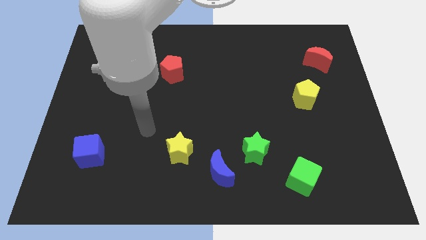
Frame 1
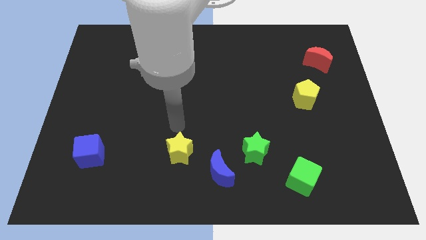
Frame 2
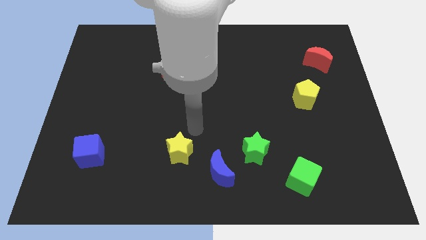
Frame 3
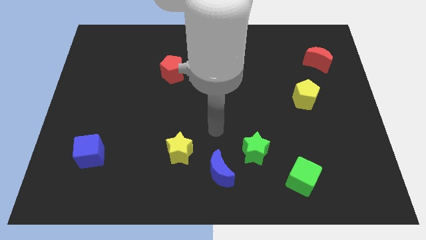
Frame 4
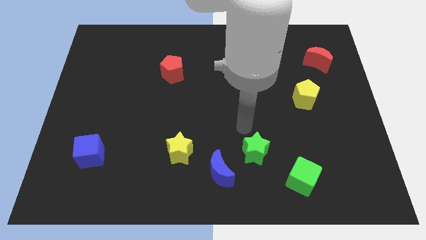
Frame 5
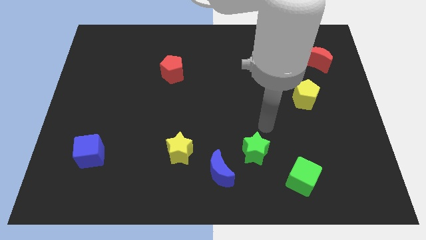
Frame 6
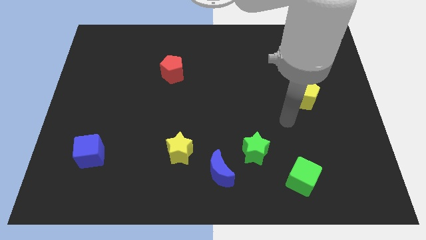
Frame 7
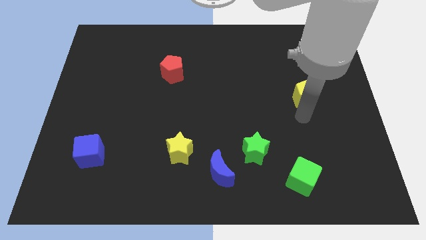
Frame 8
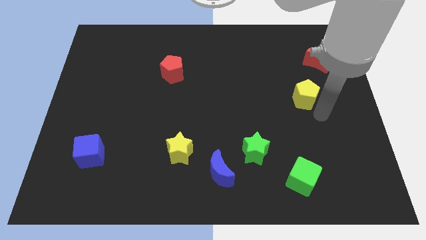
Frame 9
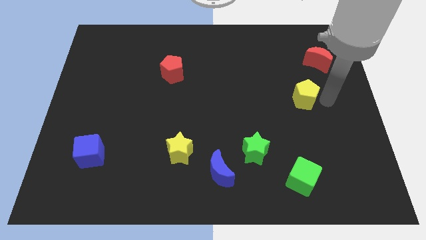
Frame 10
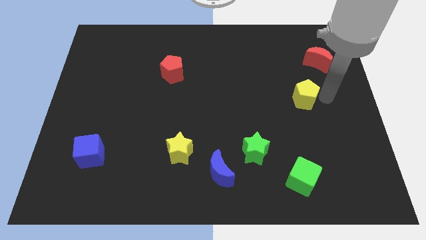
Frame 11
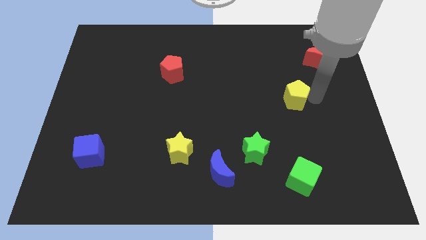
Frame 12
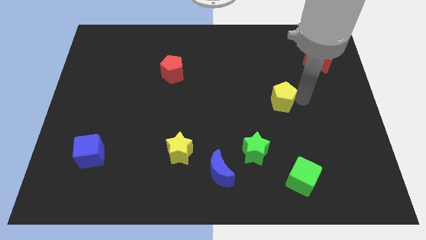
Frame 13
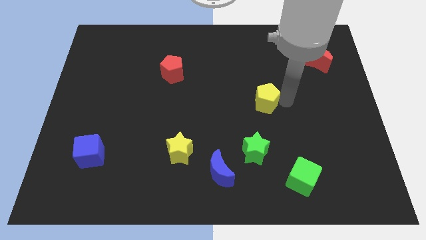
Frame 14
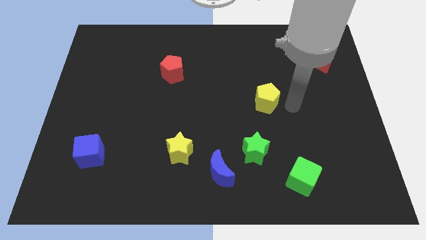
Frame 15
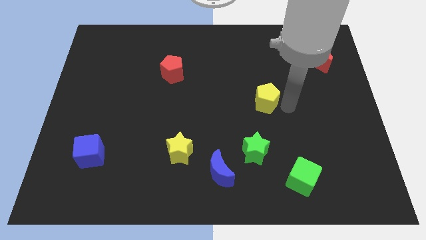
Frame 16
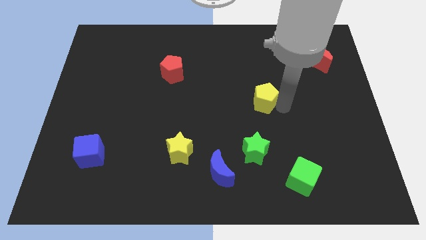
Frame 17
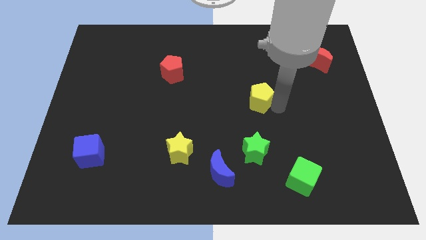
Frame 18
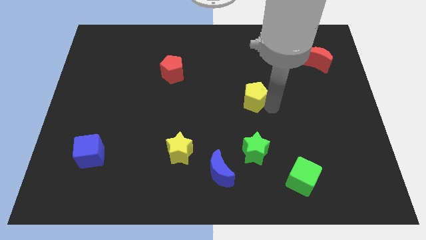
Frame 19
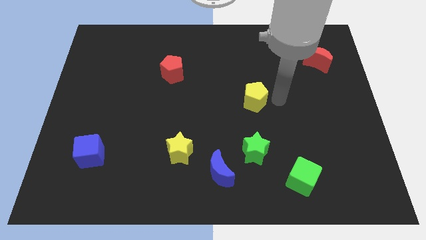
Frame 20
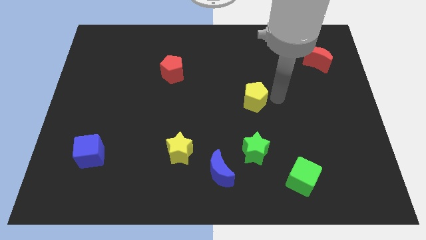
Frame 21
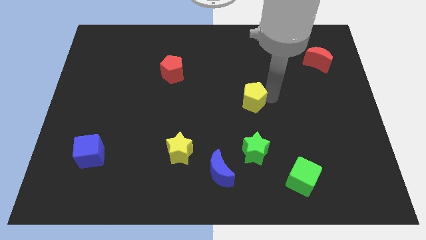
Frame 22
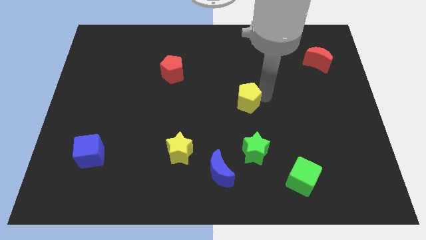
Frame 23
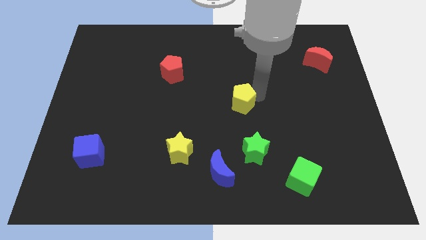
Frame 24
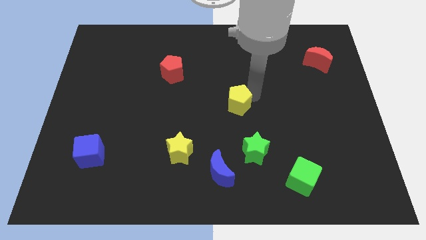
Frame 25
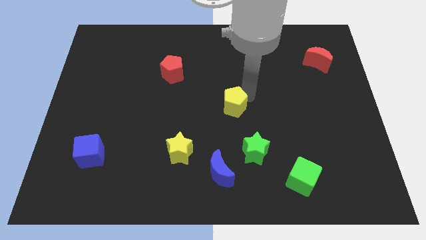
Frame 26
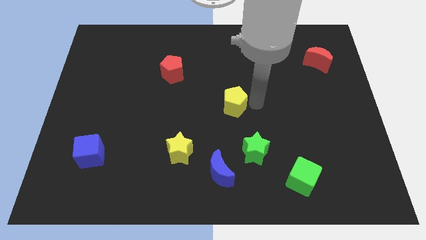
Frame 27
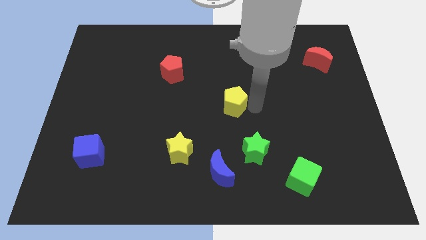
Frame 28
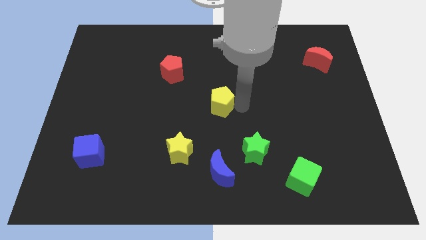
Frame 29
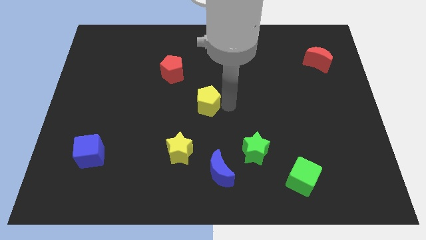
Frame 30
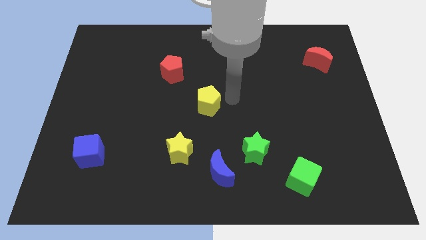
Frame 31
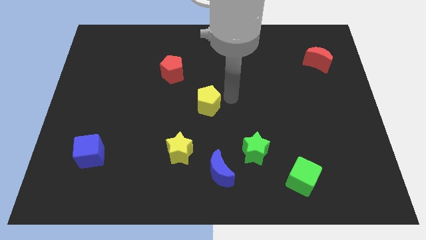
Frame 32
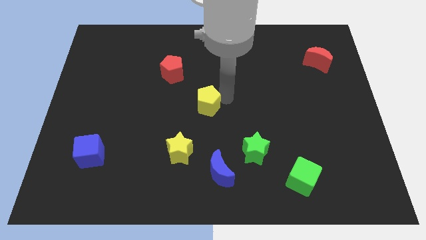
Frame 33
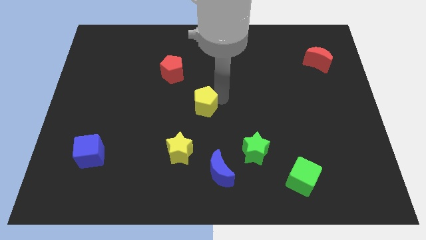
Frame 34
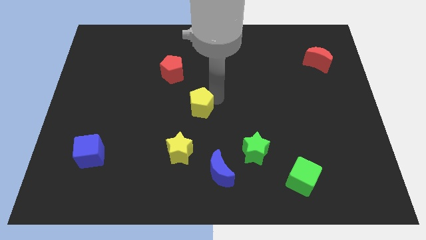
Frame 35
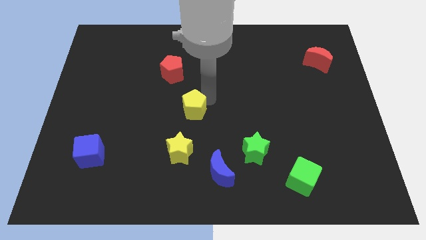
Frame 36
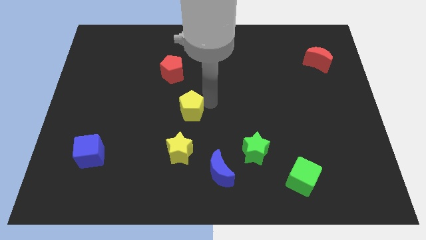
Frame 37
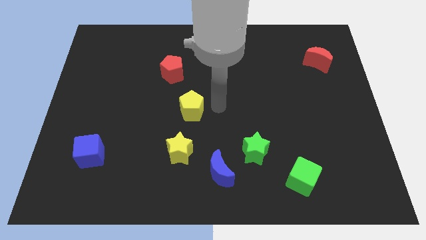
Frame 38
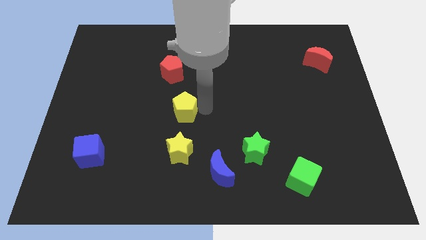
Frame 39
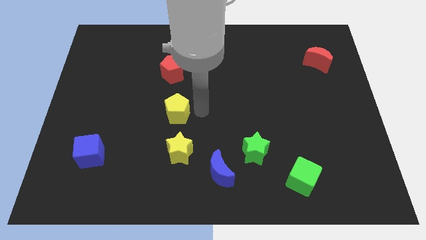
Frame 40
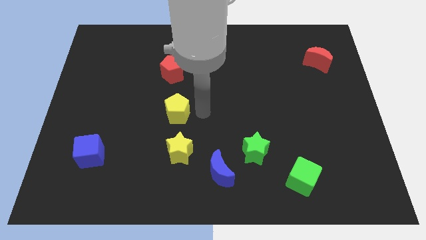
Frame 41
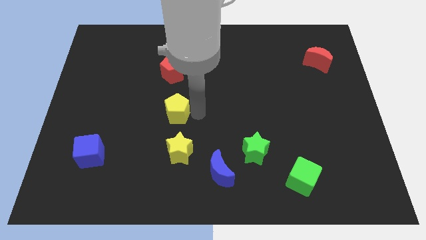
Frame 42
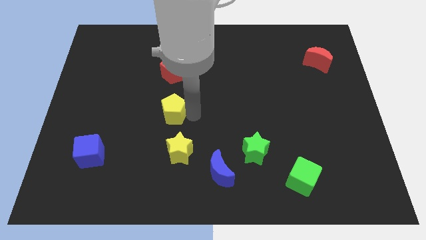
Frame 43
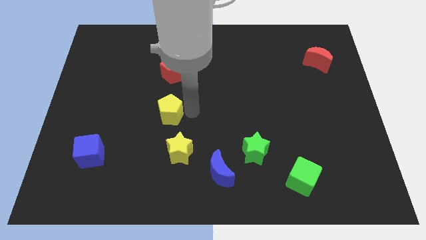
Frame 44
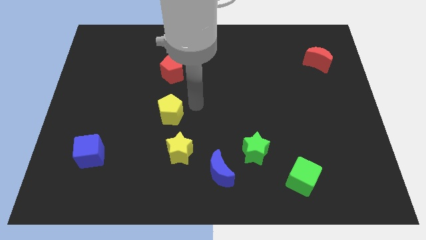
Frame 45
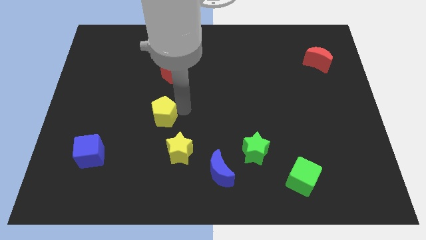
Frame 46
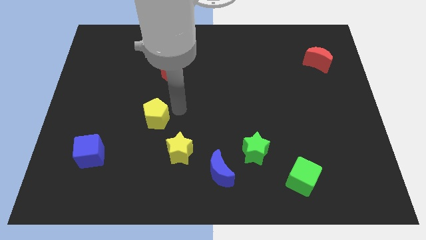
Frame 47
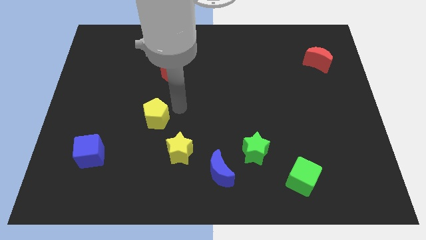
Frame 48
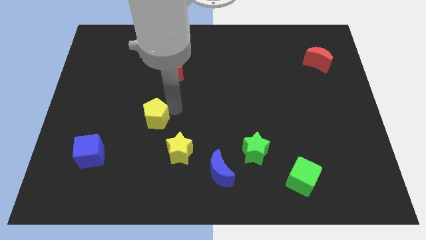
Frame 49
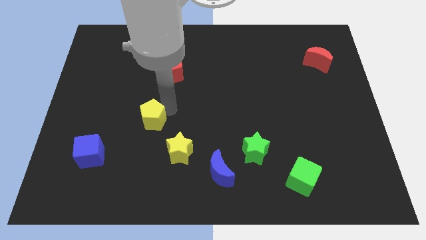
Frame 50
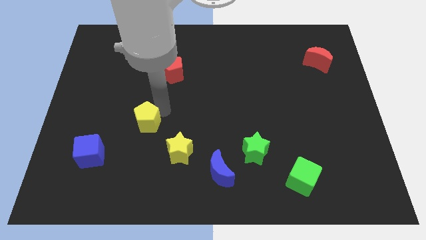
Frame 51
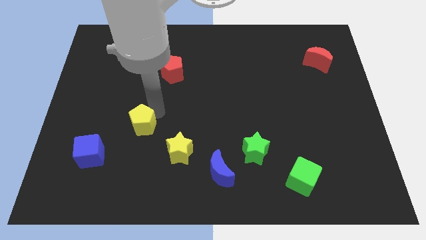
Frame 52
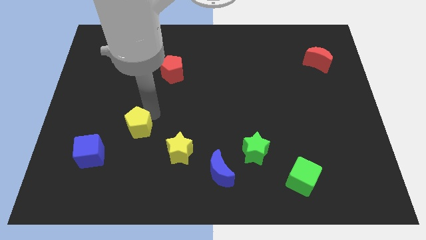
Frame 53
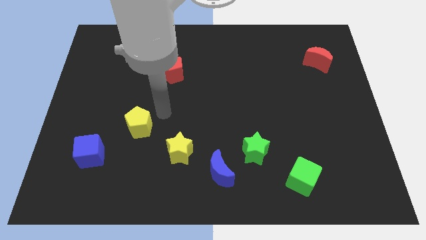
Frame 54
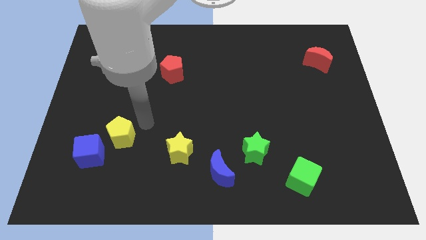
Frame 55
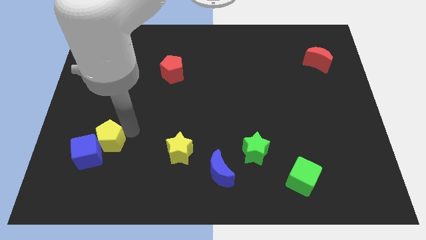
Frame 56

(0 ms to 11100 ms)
move the yellow pentagon to the blue cube

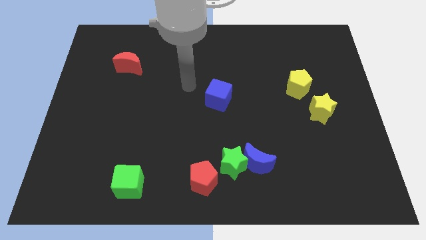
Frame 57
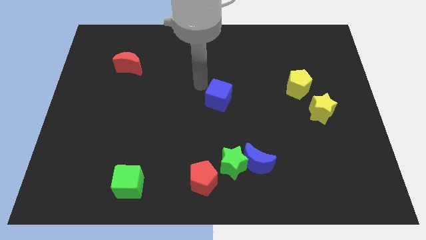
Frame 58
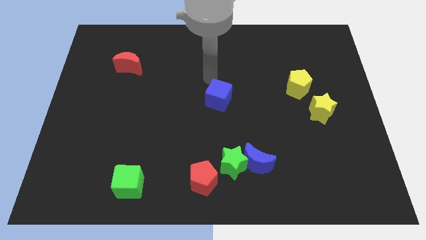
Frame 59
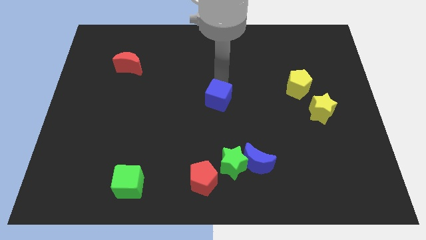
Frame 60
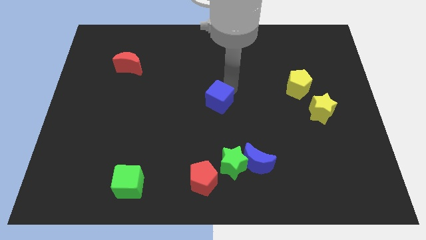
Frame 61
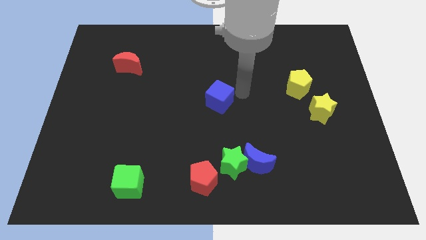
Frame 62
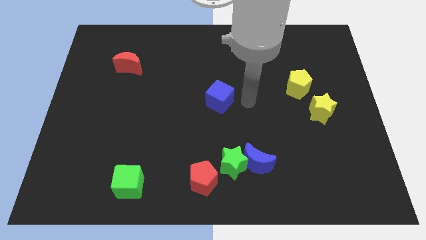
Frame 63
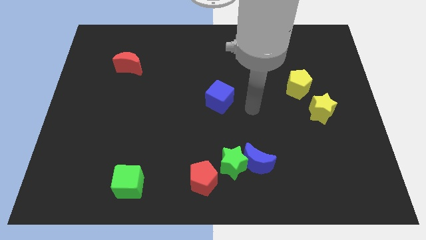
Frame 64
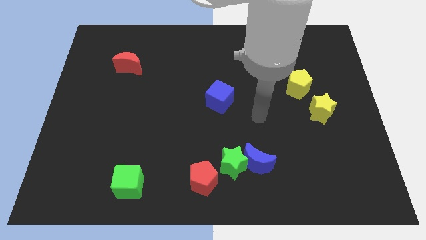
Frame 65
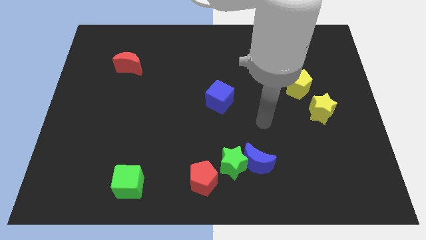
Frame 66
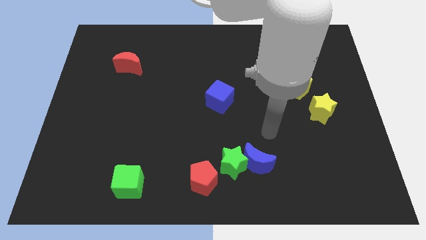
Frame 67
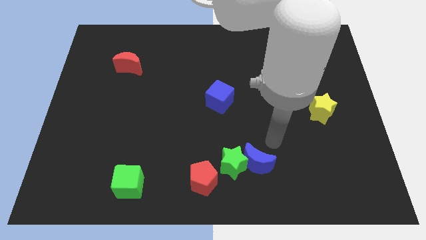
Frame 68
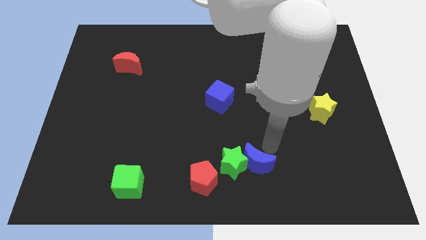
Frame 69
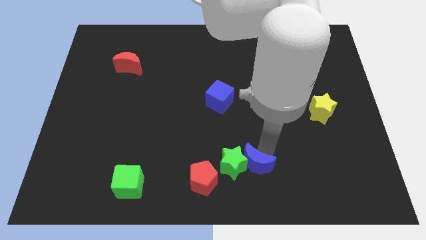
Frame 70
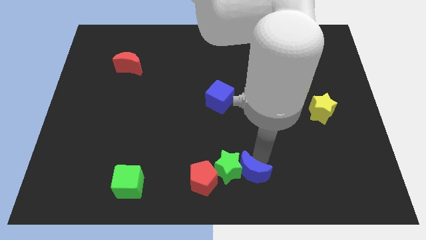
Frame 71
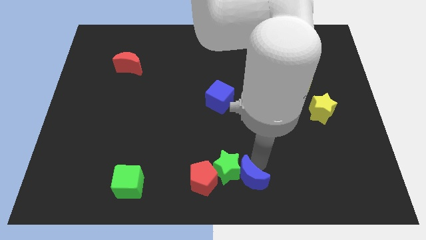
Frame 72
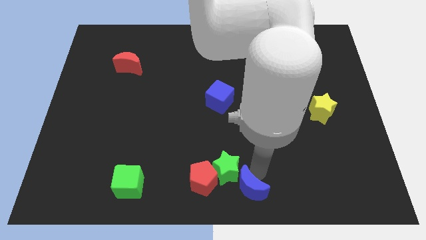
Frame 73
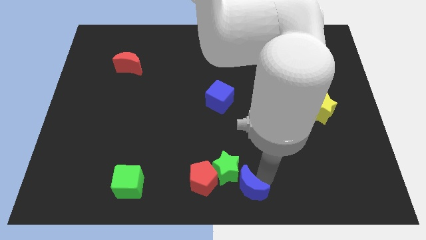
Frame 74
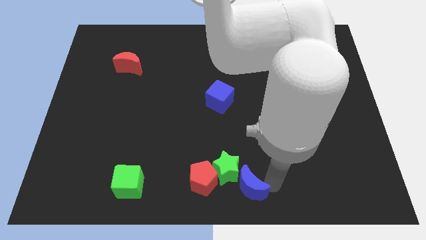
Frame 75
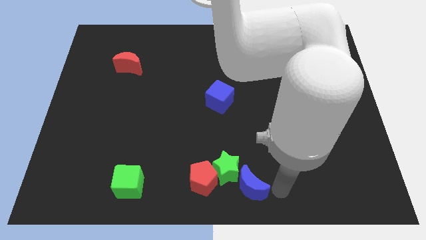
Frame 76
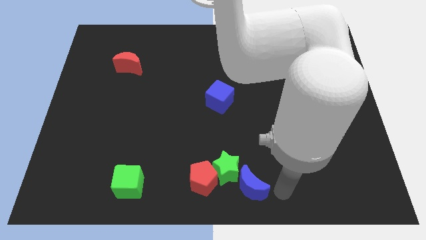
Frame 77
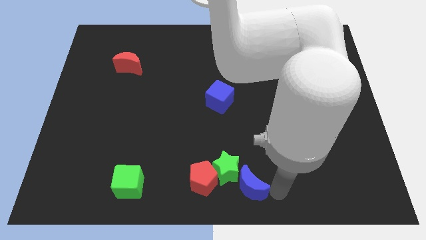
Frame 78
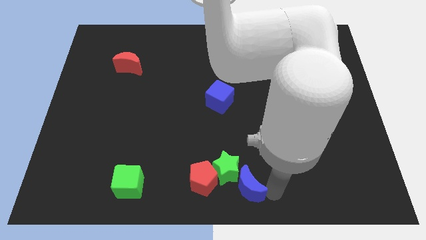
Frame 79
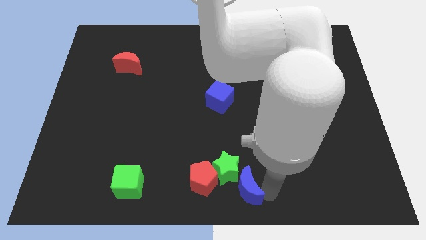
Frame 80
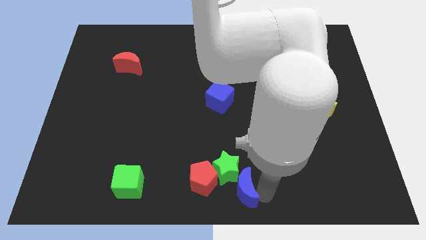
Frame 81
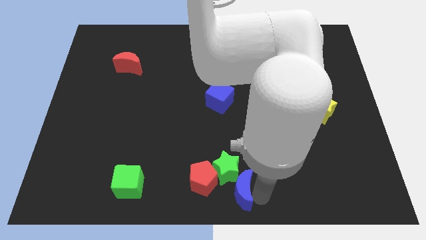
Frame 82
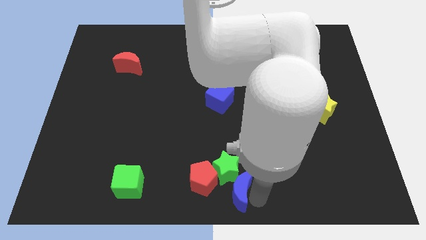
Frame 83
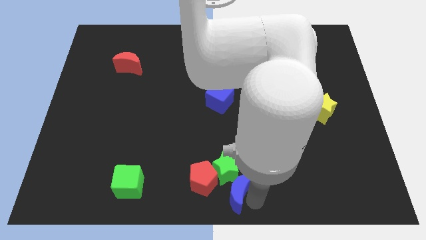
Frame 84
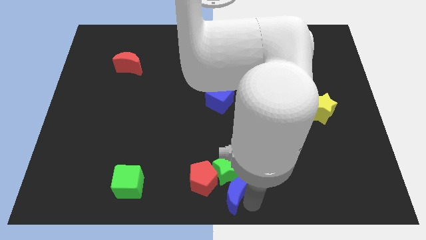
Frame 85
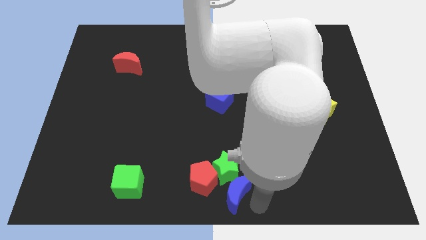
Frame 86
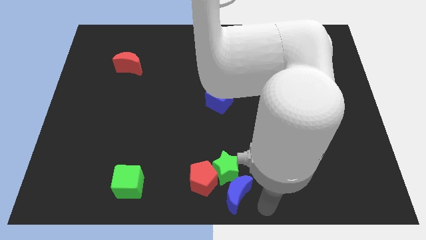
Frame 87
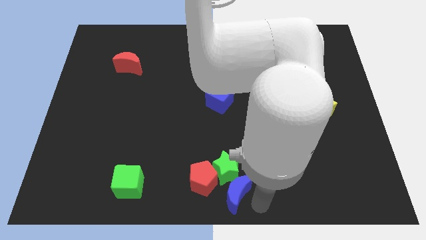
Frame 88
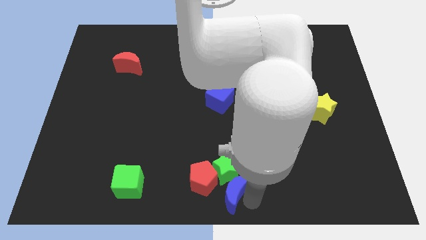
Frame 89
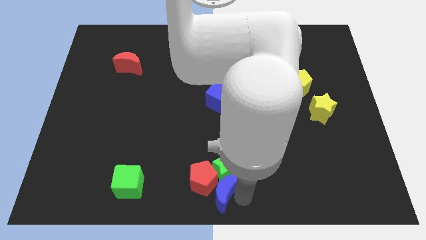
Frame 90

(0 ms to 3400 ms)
push the blue moon close to the red pentagon
